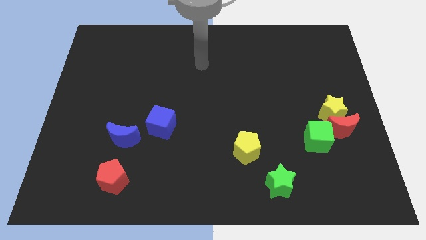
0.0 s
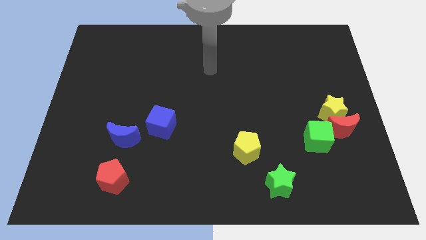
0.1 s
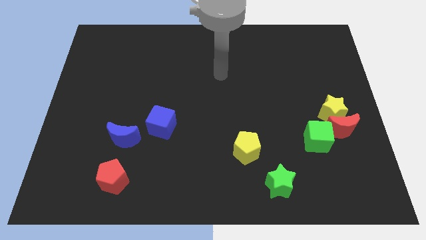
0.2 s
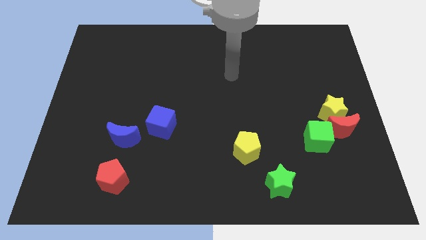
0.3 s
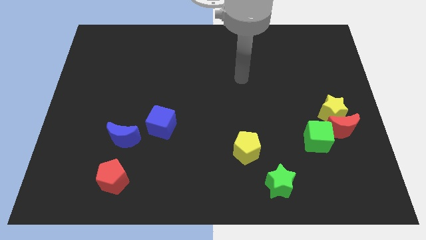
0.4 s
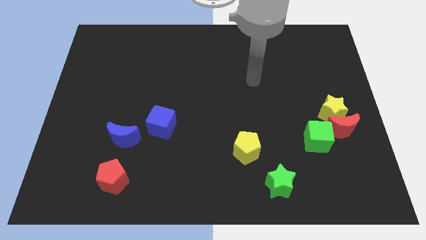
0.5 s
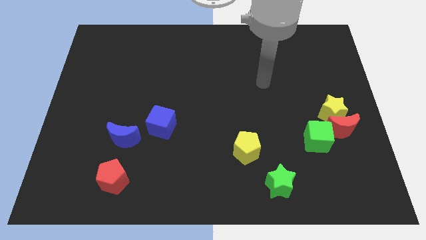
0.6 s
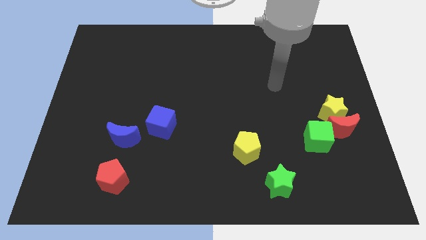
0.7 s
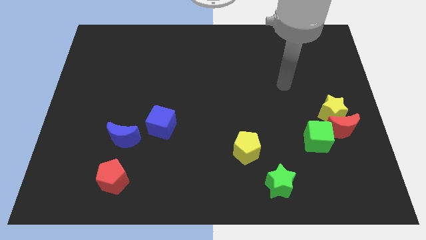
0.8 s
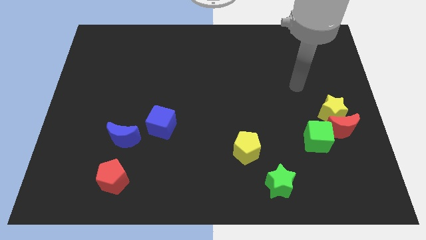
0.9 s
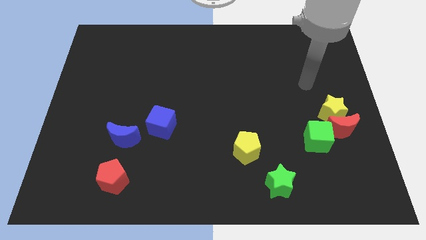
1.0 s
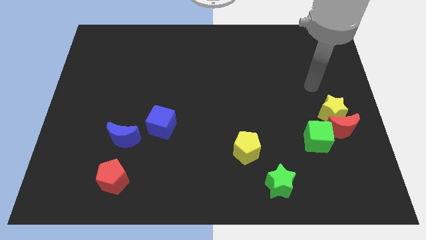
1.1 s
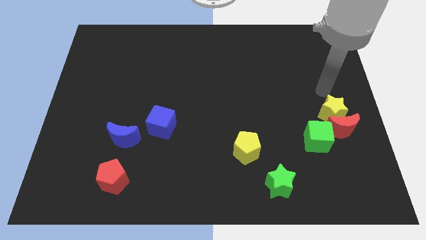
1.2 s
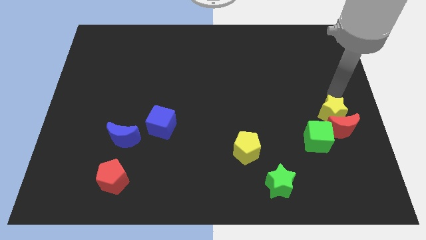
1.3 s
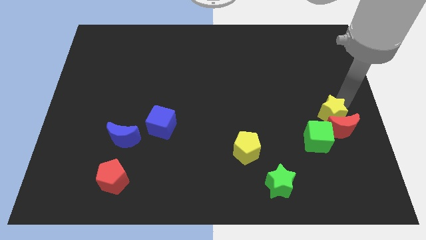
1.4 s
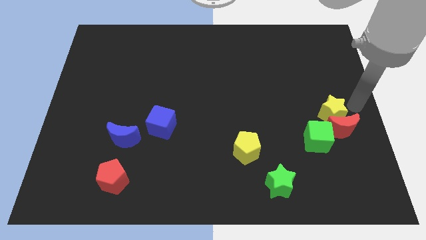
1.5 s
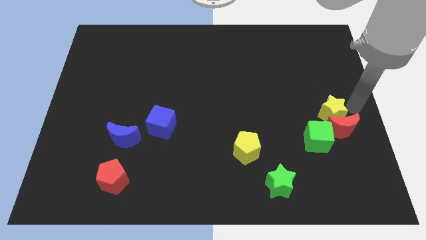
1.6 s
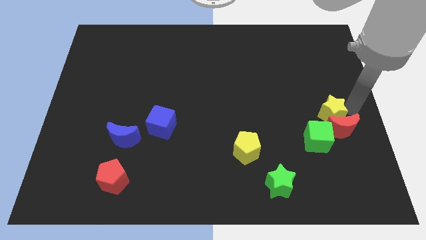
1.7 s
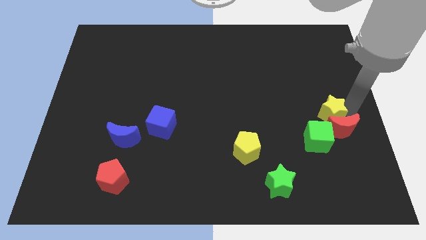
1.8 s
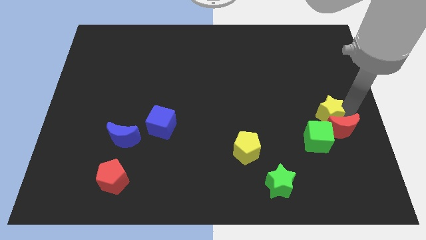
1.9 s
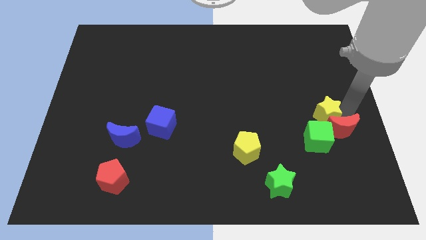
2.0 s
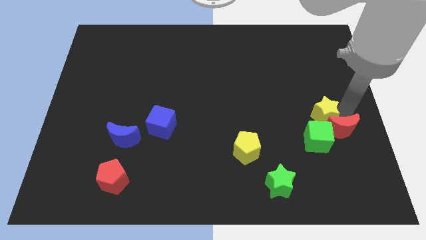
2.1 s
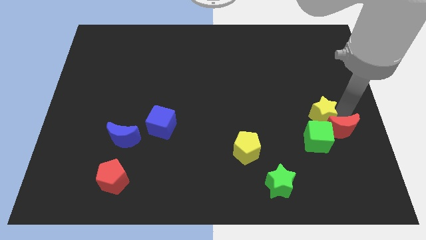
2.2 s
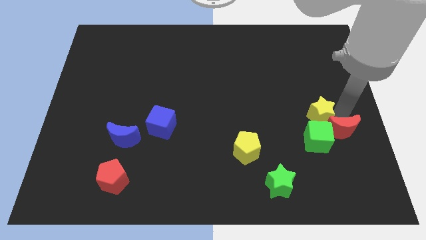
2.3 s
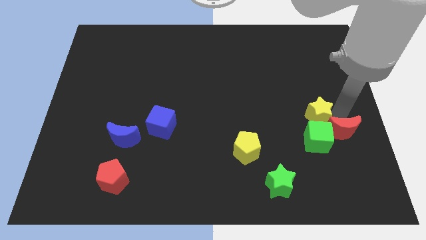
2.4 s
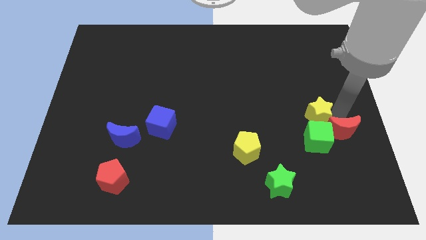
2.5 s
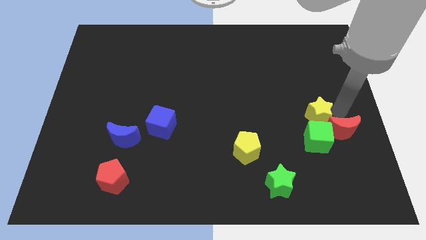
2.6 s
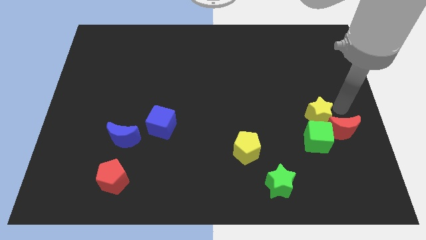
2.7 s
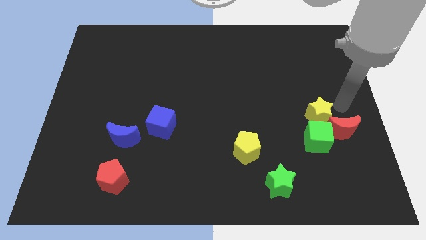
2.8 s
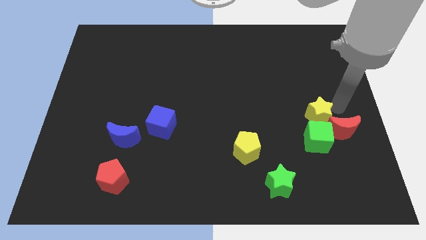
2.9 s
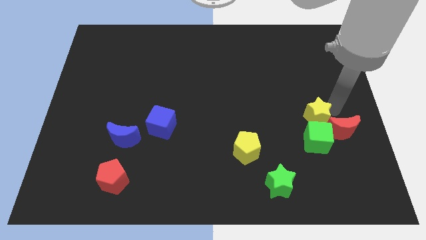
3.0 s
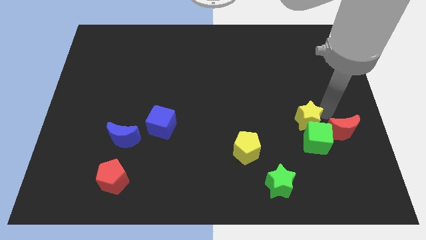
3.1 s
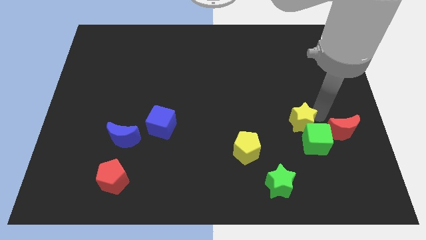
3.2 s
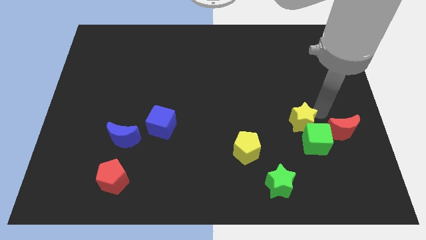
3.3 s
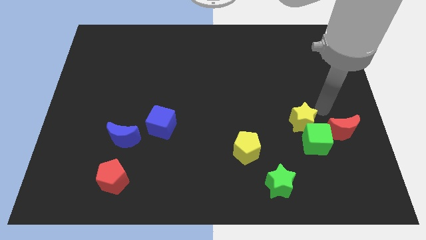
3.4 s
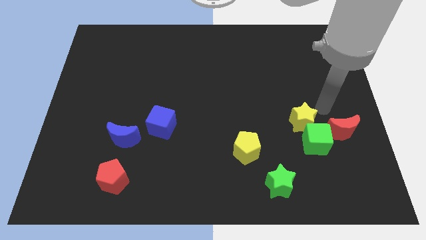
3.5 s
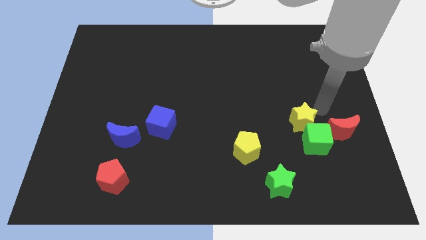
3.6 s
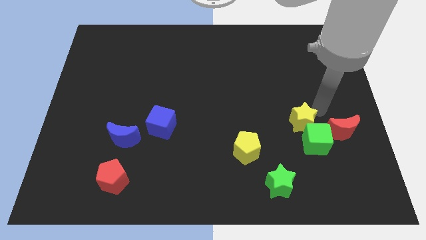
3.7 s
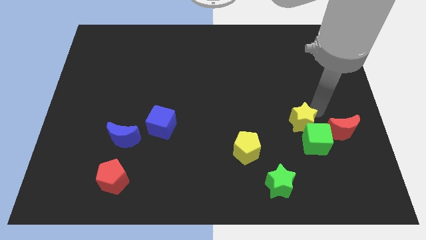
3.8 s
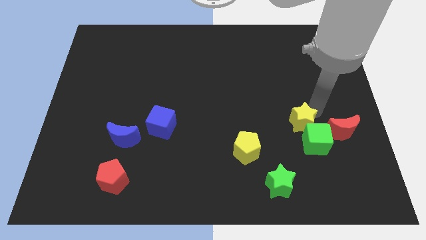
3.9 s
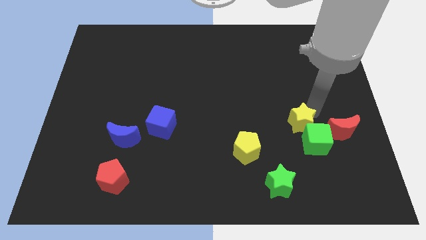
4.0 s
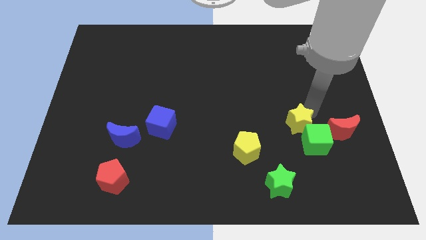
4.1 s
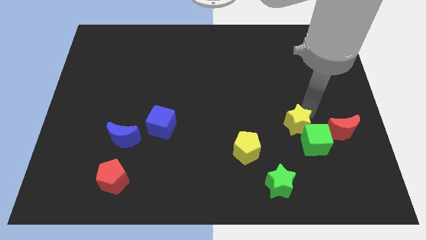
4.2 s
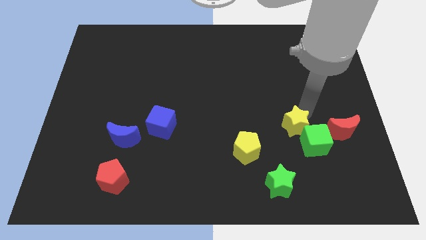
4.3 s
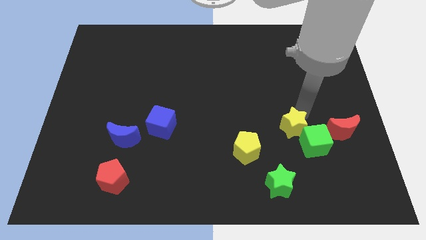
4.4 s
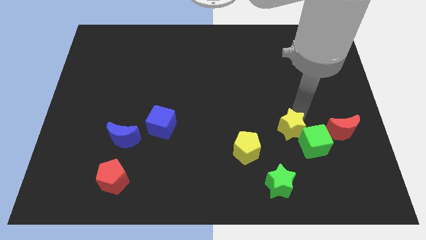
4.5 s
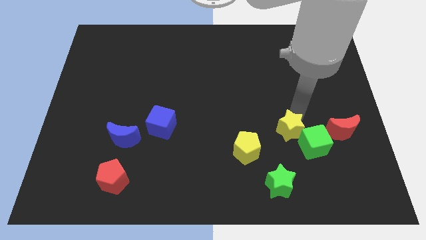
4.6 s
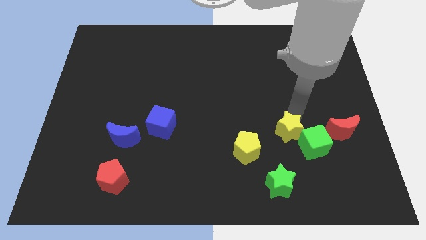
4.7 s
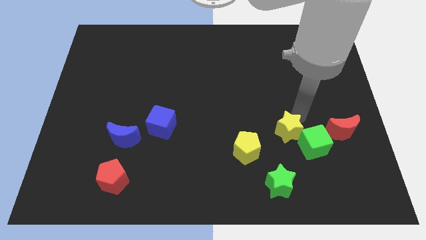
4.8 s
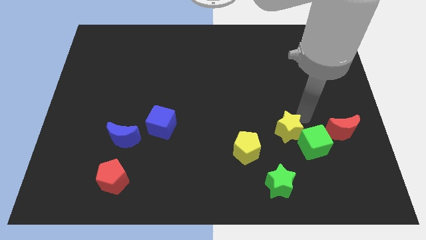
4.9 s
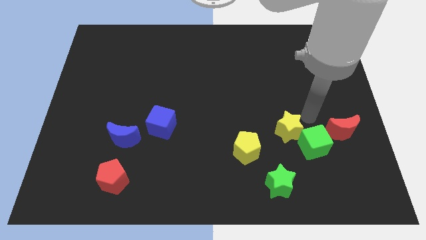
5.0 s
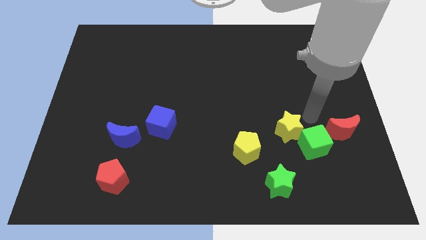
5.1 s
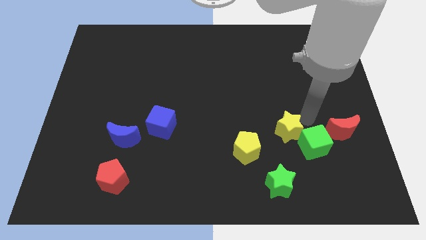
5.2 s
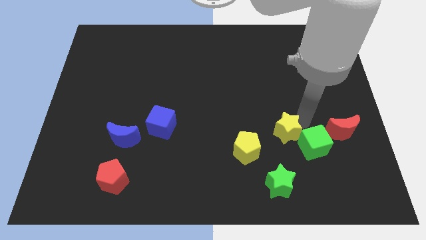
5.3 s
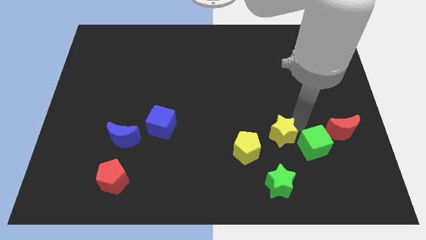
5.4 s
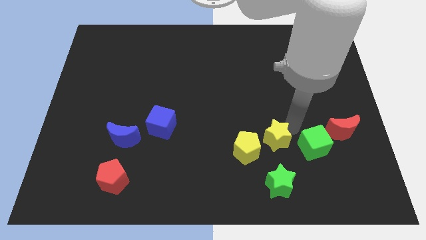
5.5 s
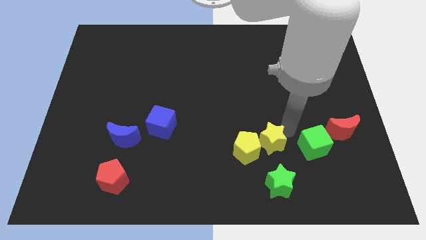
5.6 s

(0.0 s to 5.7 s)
put the yellow star next to the yellow pentagon

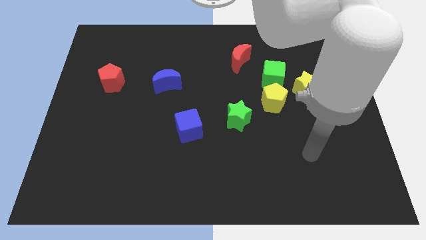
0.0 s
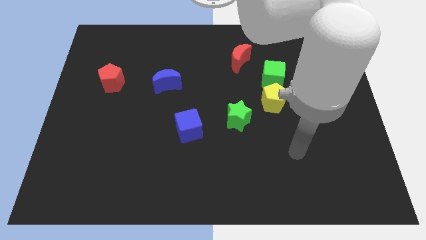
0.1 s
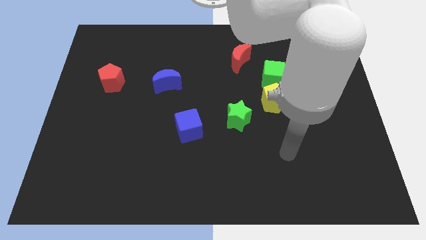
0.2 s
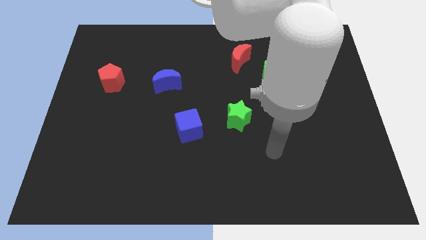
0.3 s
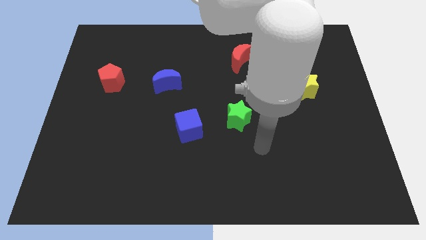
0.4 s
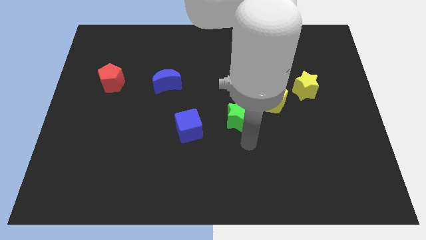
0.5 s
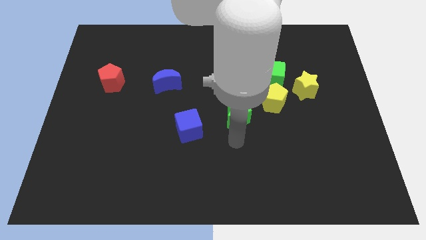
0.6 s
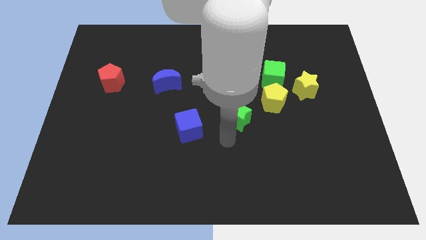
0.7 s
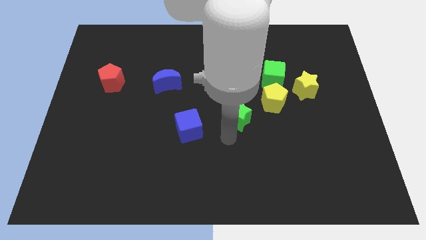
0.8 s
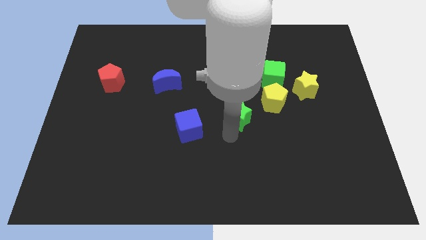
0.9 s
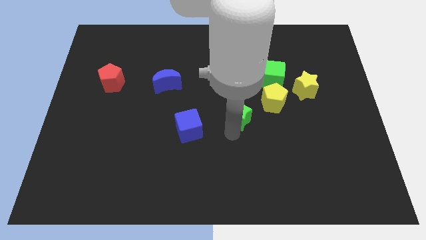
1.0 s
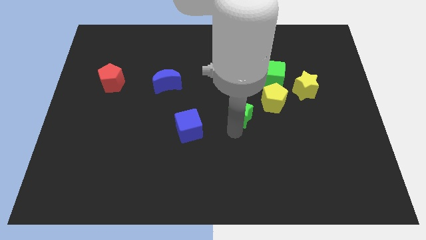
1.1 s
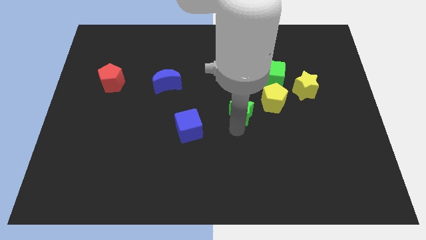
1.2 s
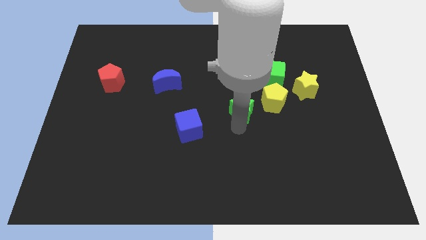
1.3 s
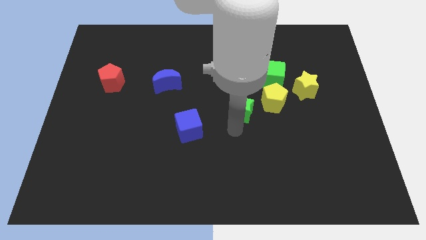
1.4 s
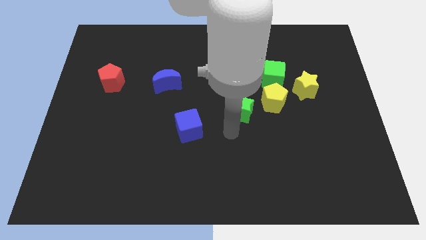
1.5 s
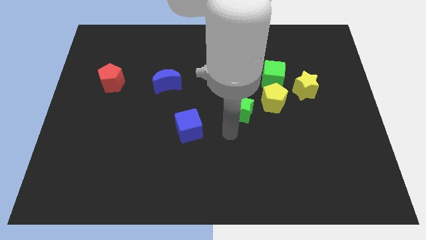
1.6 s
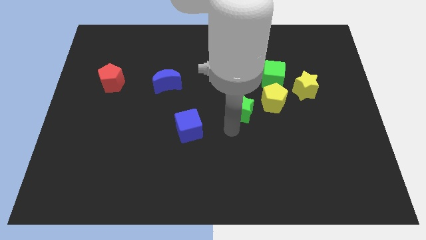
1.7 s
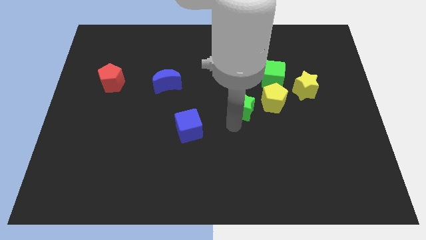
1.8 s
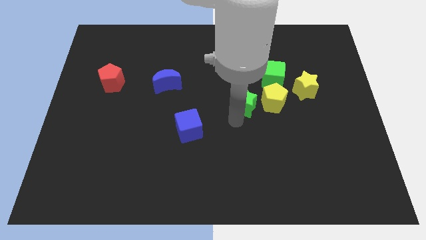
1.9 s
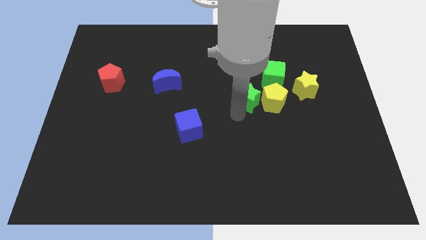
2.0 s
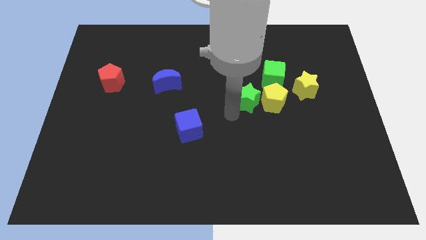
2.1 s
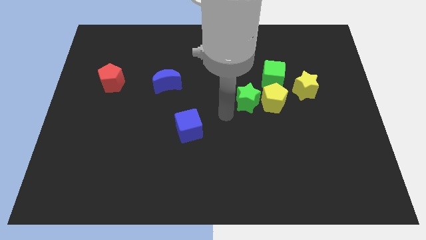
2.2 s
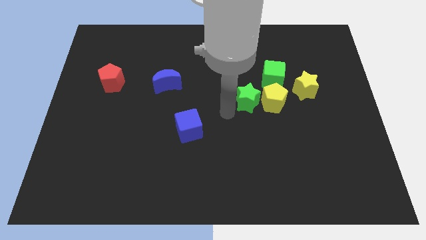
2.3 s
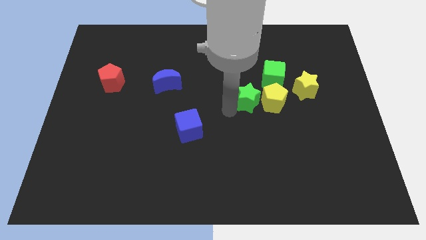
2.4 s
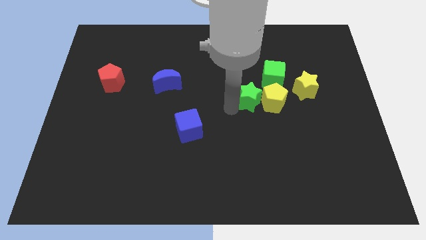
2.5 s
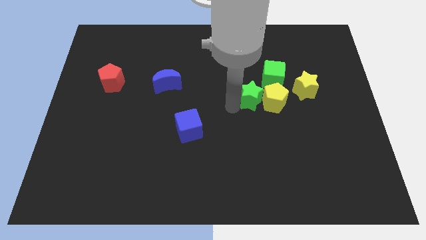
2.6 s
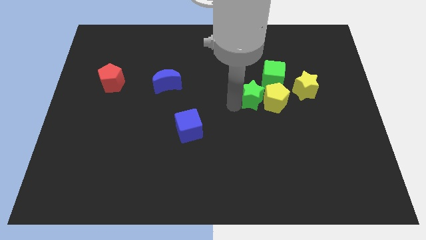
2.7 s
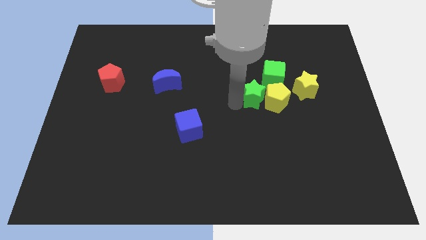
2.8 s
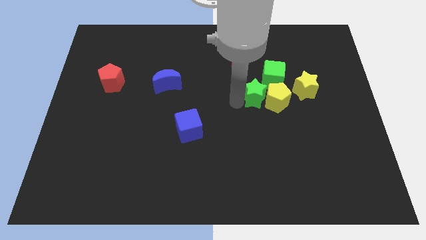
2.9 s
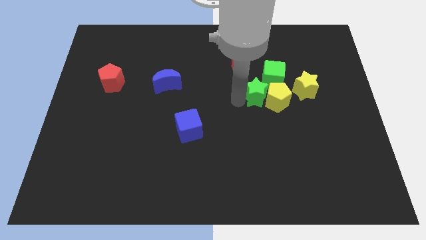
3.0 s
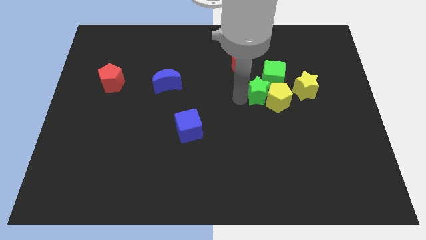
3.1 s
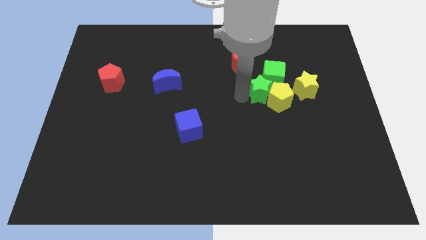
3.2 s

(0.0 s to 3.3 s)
move the green star next to the green cube
